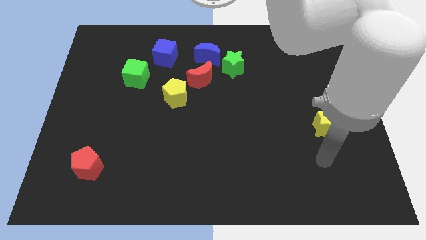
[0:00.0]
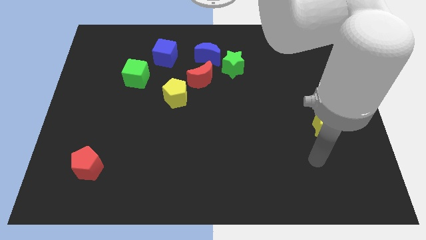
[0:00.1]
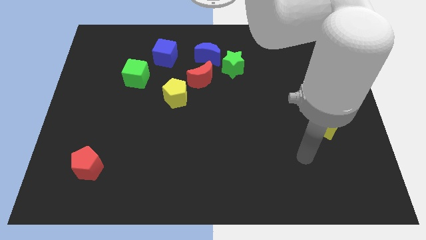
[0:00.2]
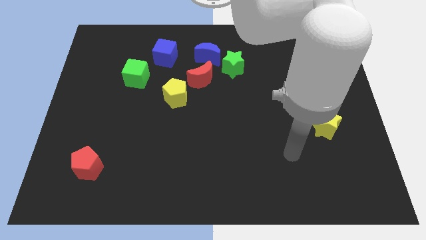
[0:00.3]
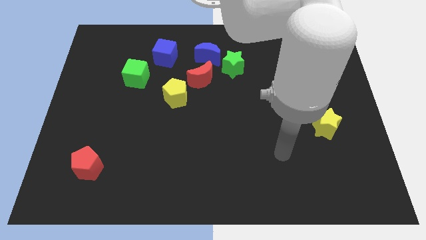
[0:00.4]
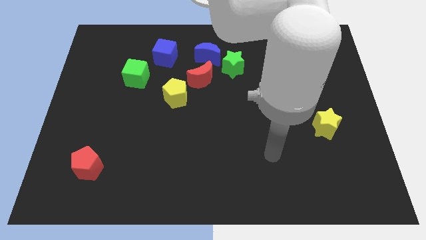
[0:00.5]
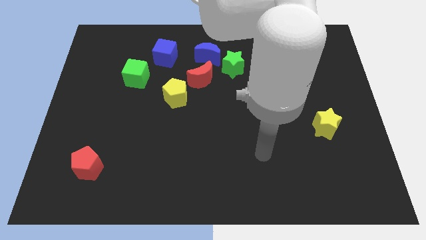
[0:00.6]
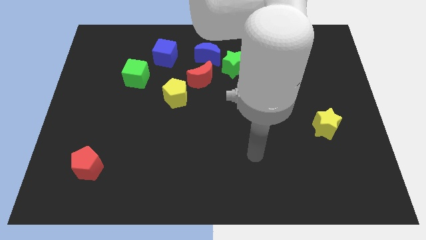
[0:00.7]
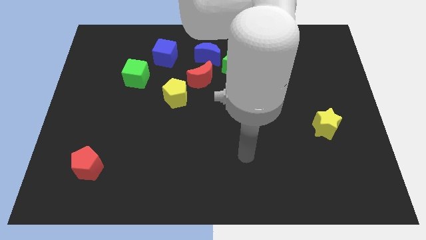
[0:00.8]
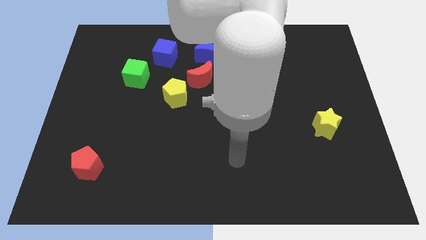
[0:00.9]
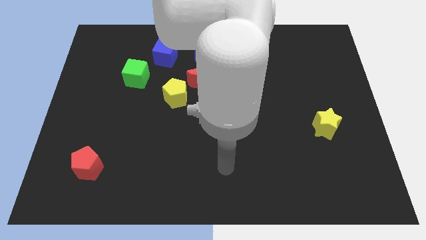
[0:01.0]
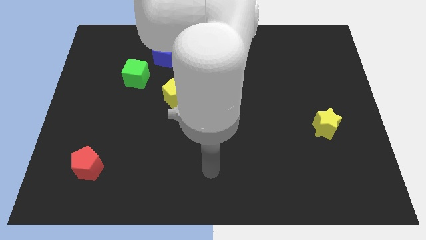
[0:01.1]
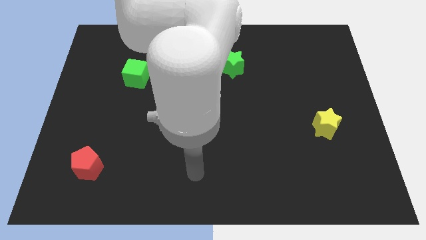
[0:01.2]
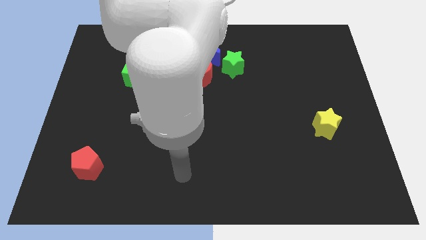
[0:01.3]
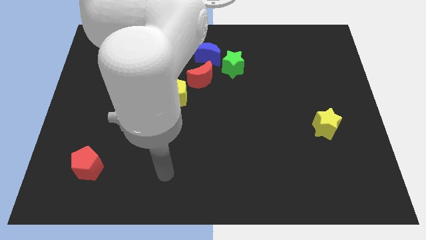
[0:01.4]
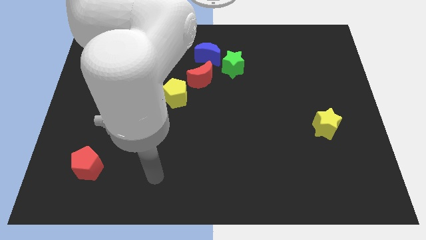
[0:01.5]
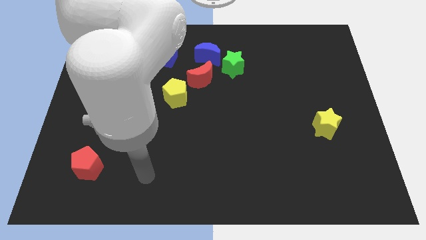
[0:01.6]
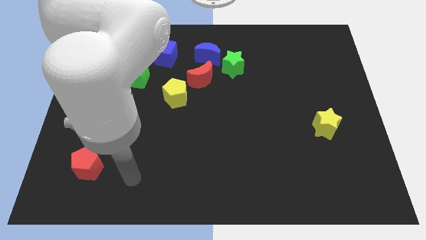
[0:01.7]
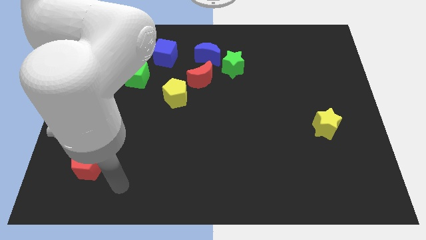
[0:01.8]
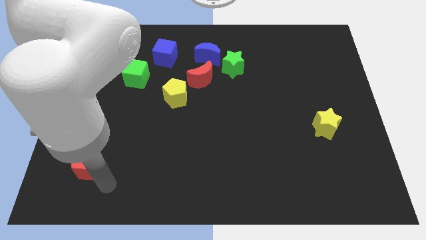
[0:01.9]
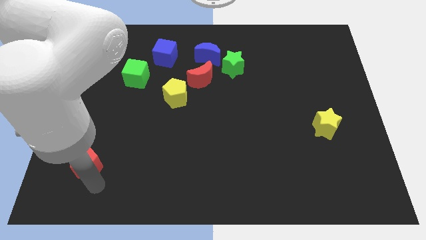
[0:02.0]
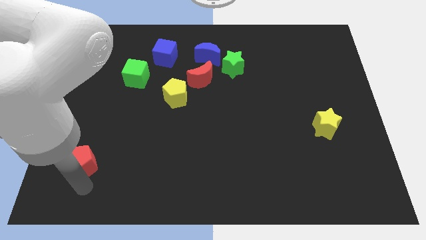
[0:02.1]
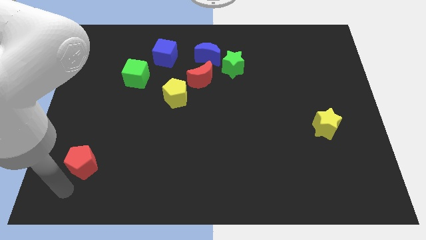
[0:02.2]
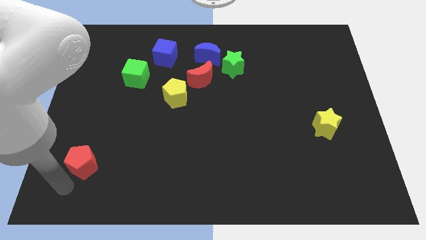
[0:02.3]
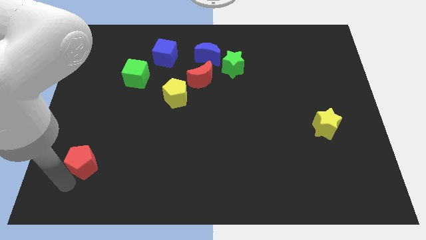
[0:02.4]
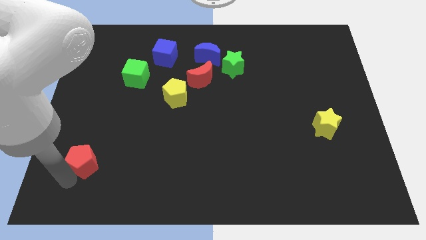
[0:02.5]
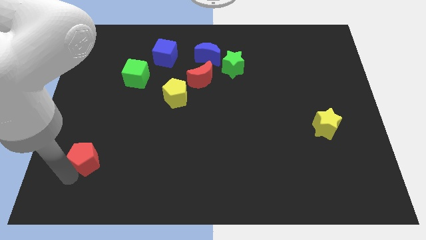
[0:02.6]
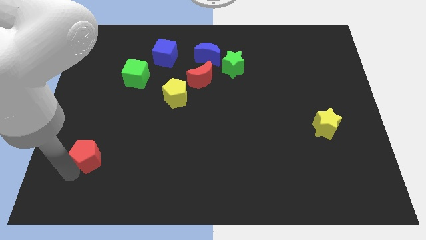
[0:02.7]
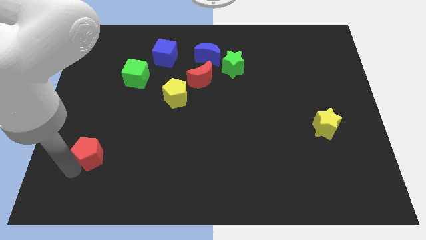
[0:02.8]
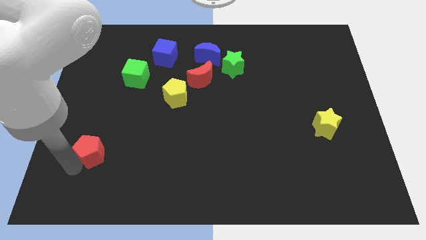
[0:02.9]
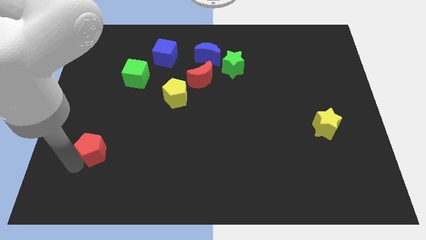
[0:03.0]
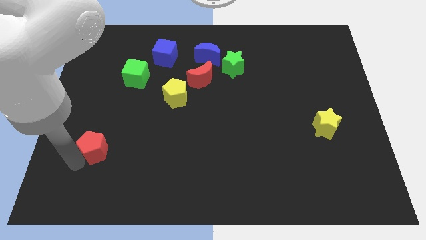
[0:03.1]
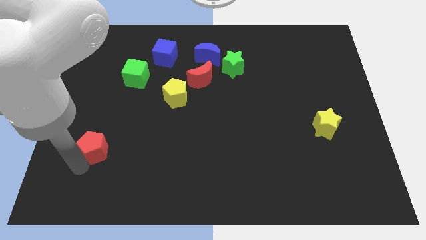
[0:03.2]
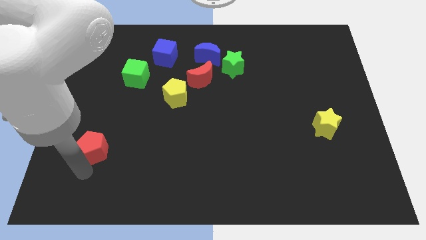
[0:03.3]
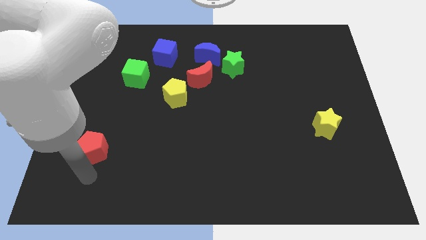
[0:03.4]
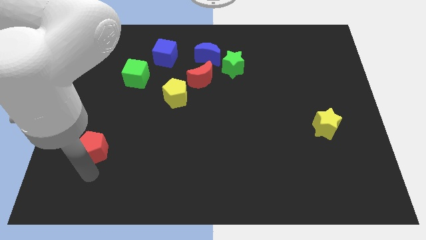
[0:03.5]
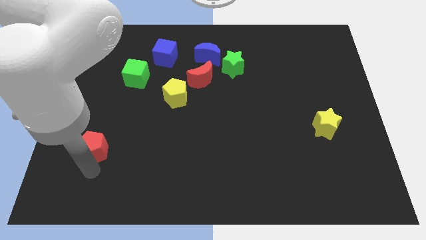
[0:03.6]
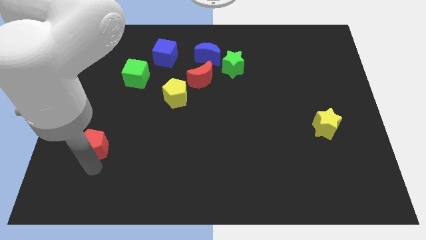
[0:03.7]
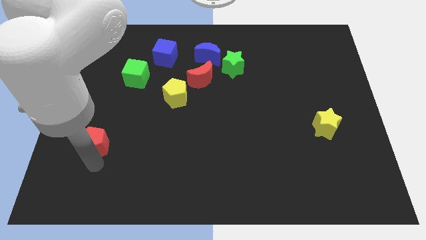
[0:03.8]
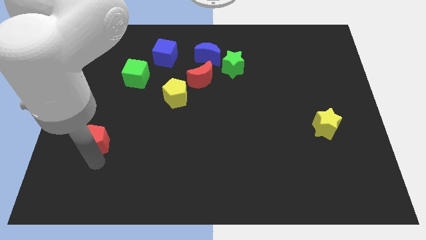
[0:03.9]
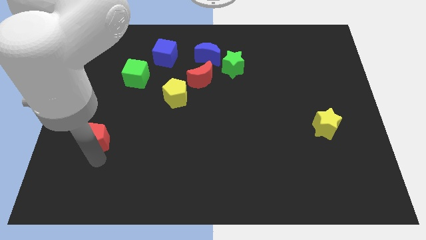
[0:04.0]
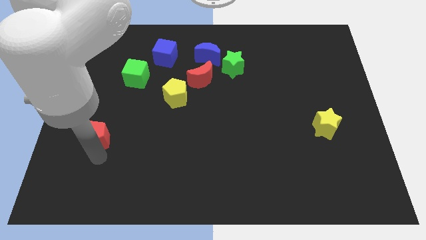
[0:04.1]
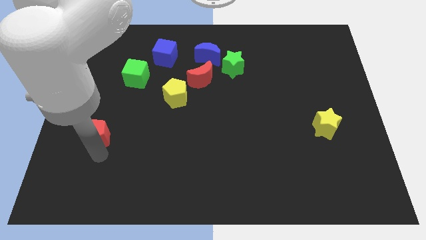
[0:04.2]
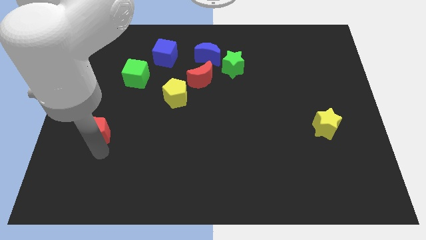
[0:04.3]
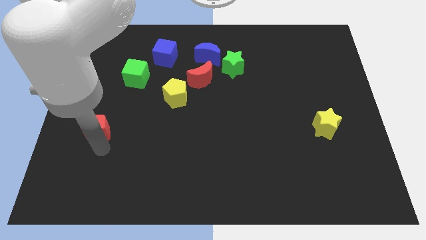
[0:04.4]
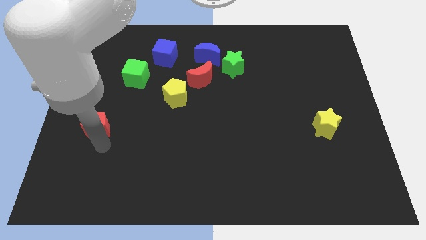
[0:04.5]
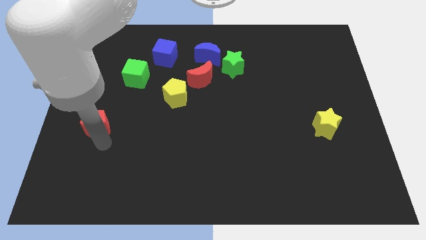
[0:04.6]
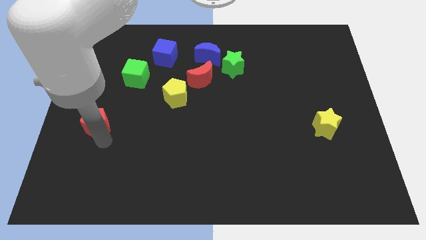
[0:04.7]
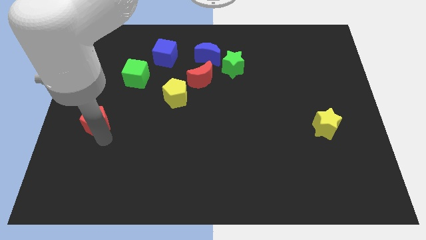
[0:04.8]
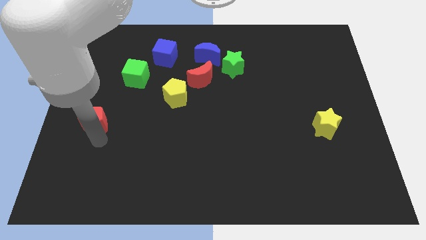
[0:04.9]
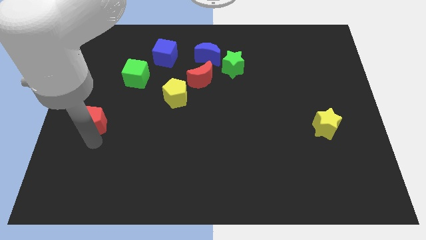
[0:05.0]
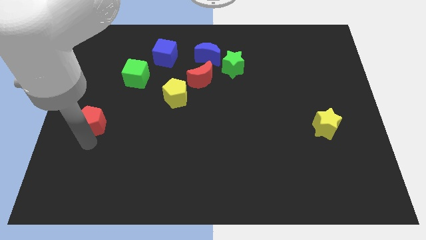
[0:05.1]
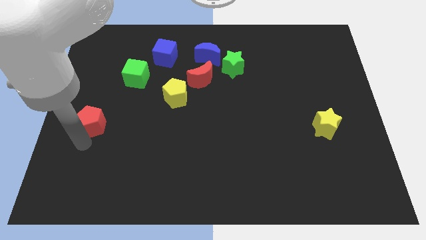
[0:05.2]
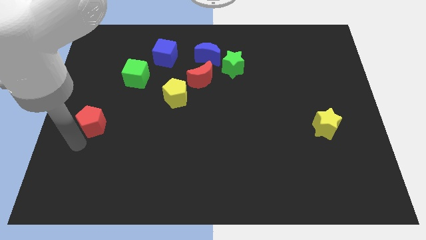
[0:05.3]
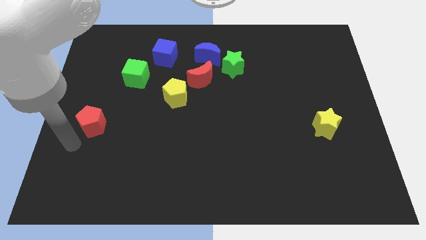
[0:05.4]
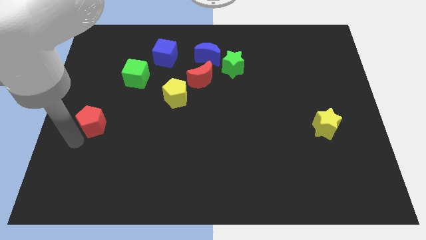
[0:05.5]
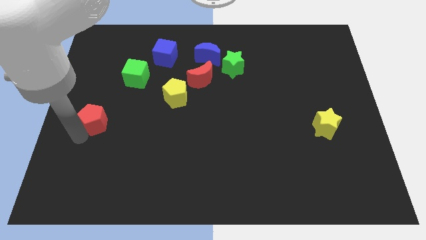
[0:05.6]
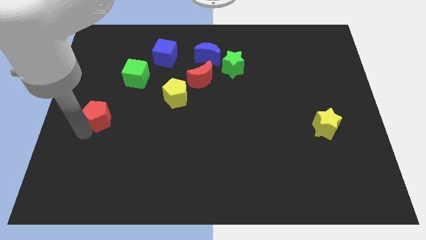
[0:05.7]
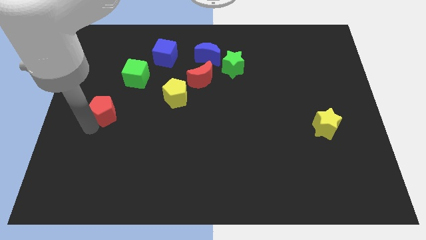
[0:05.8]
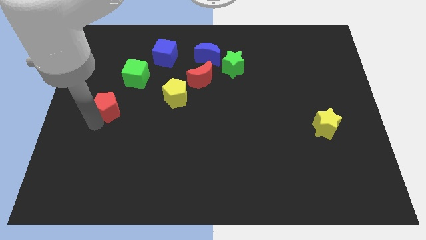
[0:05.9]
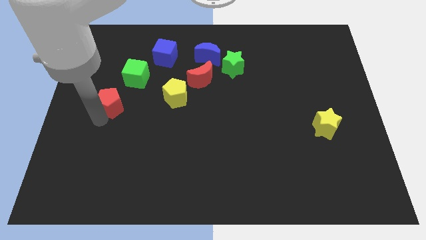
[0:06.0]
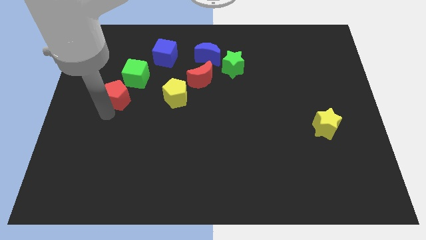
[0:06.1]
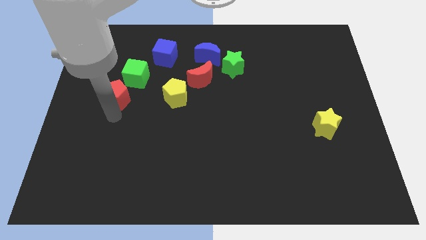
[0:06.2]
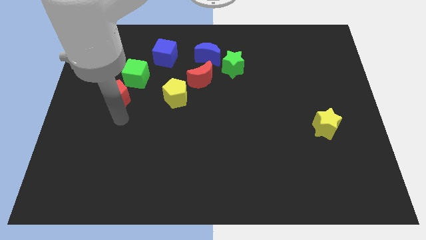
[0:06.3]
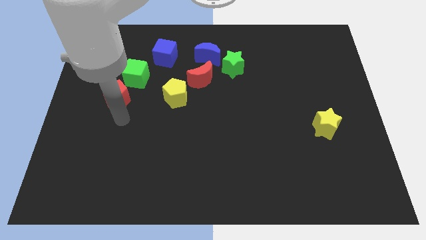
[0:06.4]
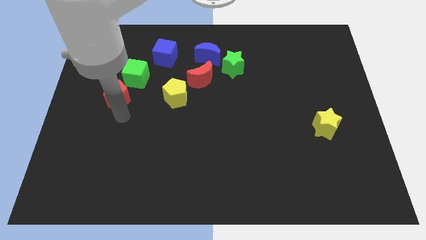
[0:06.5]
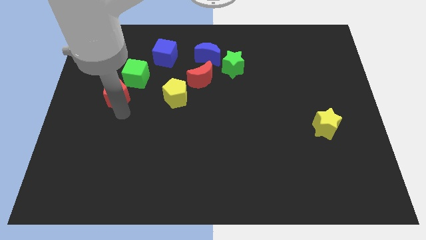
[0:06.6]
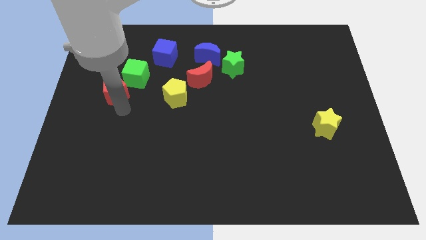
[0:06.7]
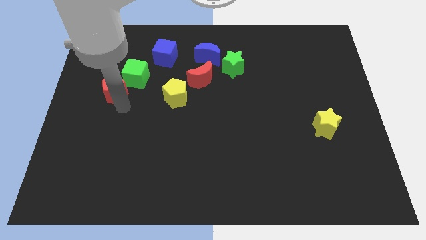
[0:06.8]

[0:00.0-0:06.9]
push the red pentagon up

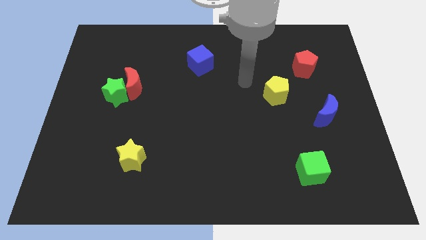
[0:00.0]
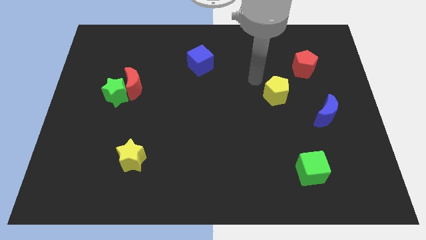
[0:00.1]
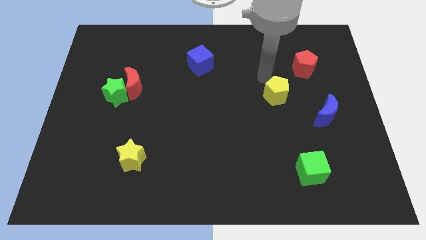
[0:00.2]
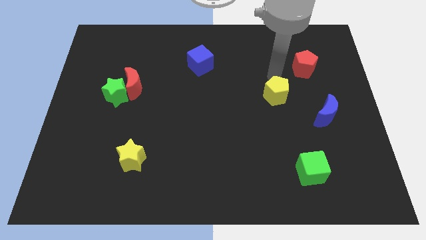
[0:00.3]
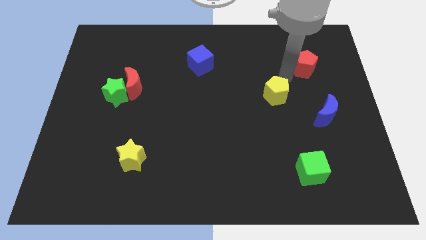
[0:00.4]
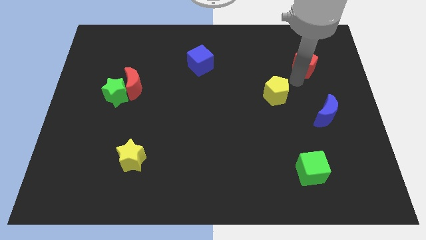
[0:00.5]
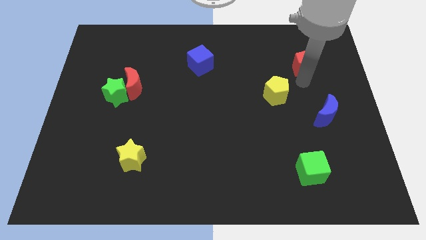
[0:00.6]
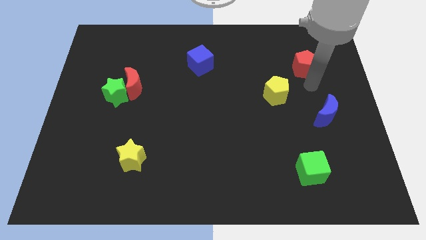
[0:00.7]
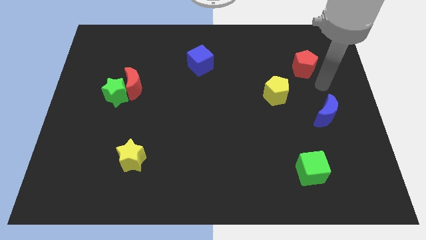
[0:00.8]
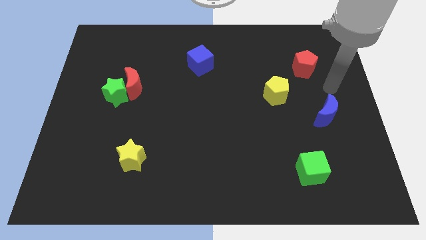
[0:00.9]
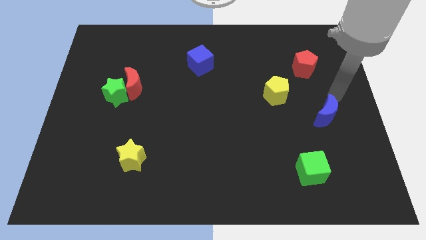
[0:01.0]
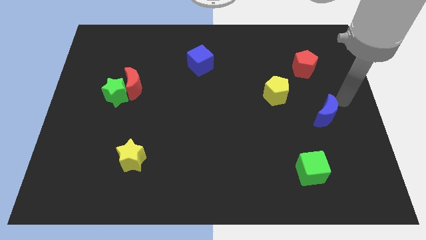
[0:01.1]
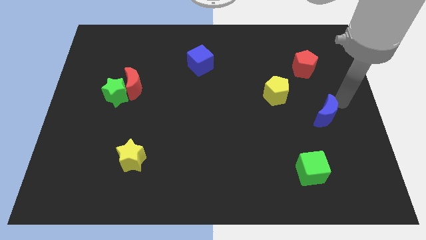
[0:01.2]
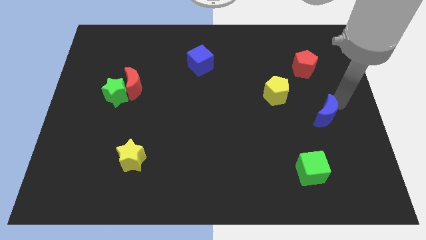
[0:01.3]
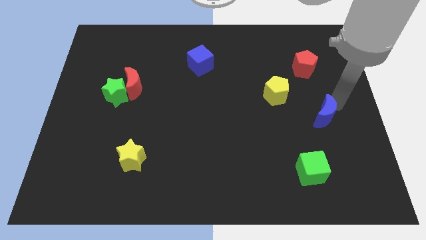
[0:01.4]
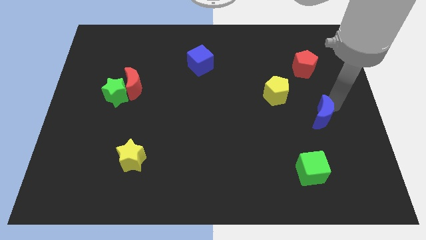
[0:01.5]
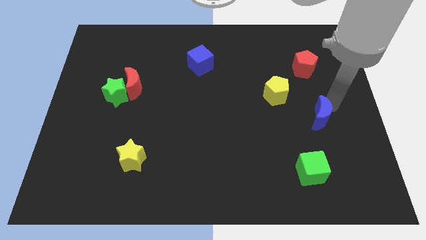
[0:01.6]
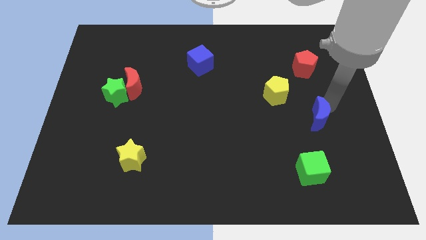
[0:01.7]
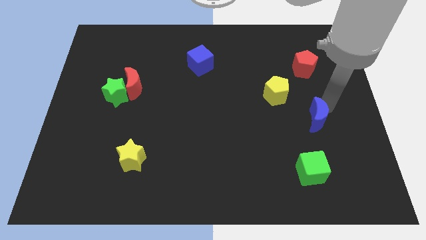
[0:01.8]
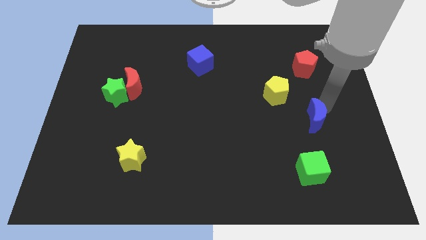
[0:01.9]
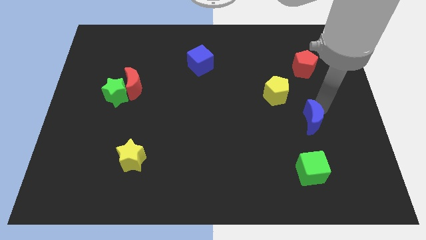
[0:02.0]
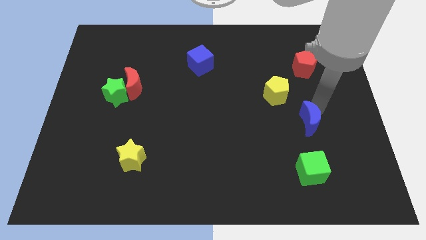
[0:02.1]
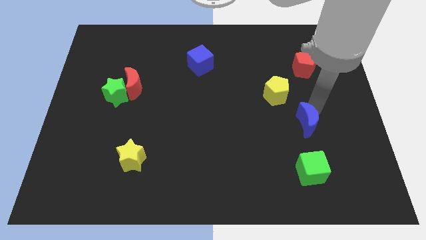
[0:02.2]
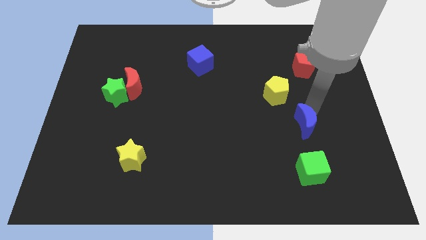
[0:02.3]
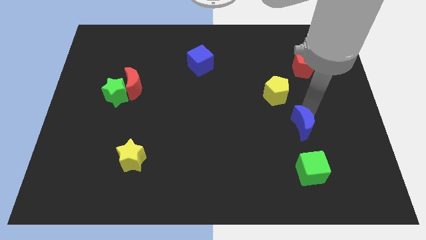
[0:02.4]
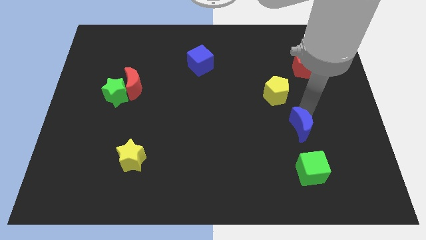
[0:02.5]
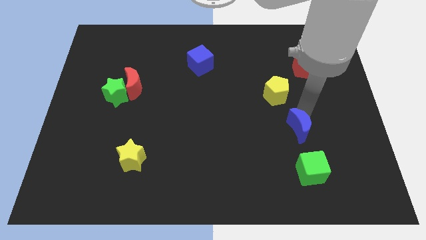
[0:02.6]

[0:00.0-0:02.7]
push the blue moon somewhat downwards and left diagonally
